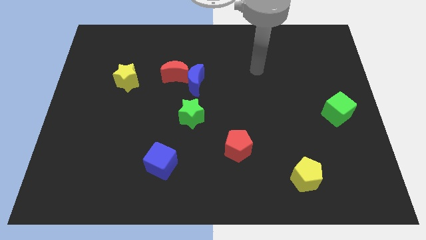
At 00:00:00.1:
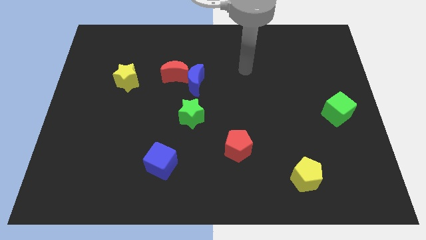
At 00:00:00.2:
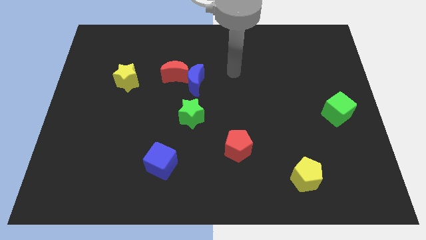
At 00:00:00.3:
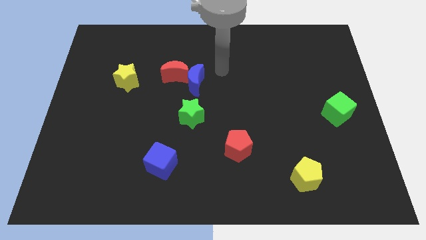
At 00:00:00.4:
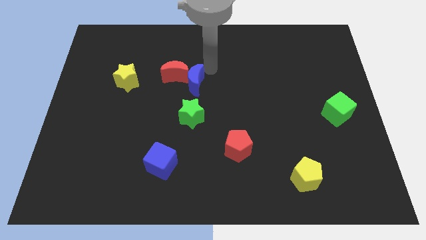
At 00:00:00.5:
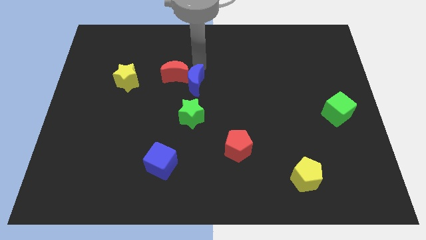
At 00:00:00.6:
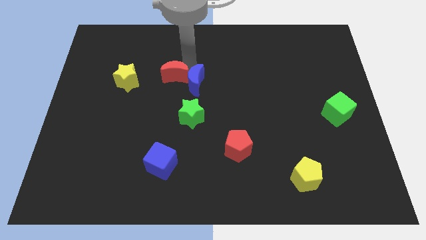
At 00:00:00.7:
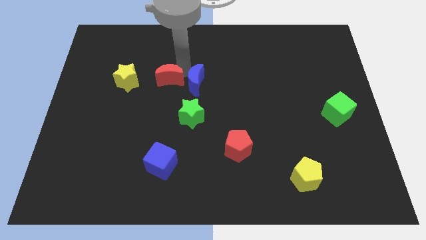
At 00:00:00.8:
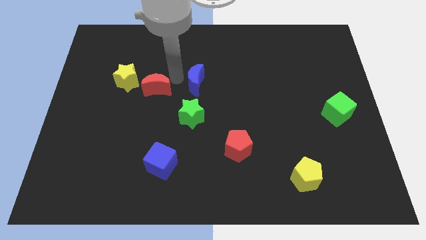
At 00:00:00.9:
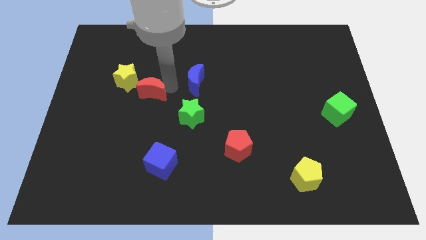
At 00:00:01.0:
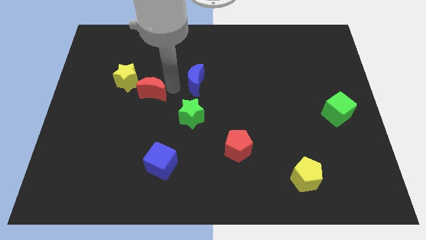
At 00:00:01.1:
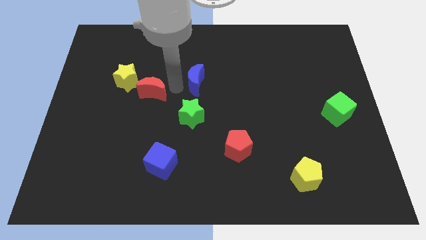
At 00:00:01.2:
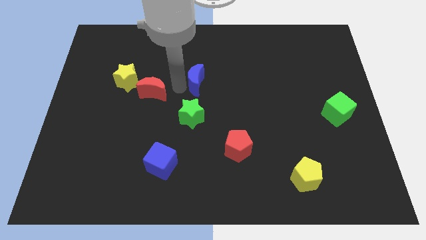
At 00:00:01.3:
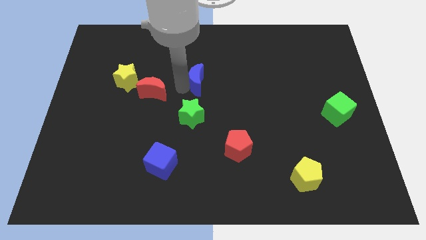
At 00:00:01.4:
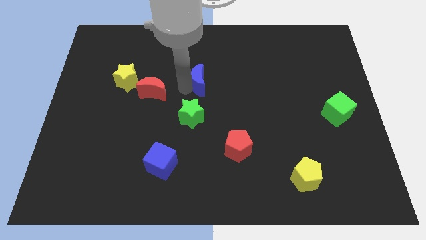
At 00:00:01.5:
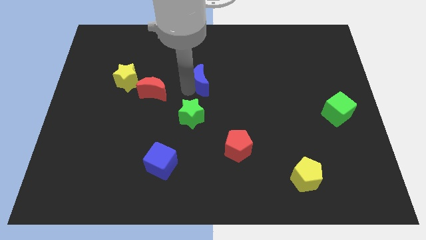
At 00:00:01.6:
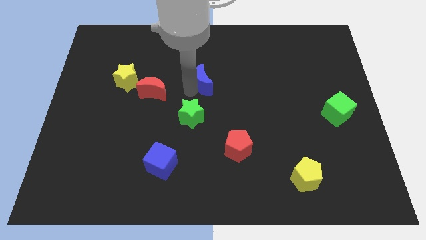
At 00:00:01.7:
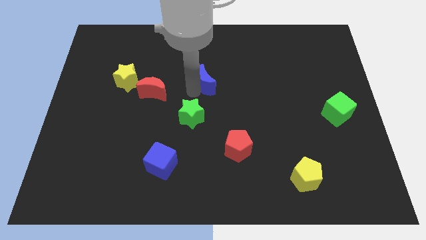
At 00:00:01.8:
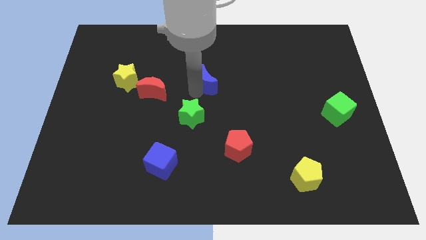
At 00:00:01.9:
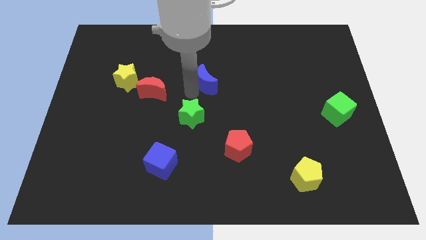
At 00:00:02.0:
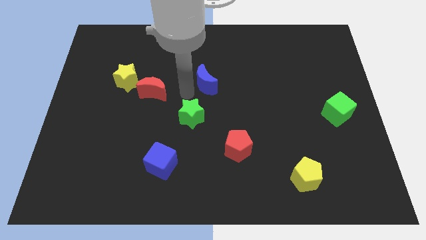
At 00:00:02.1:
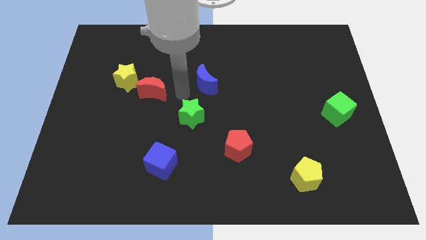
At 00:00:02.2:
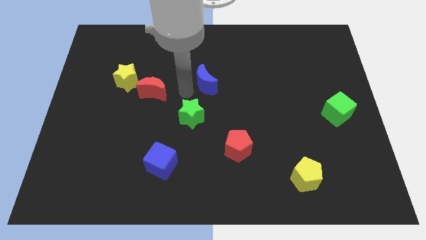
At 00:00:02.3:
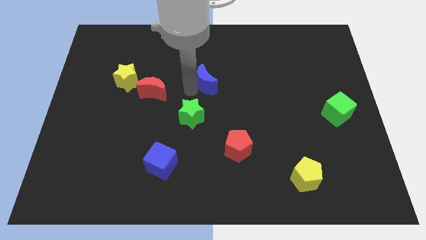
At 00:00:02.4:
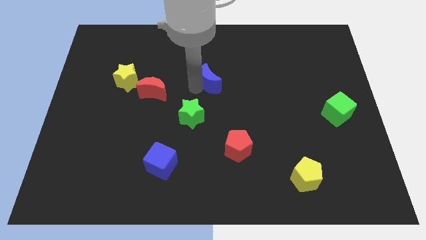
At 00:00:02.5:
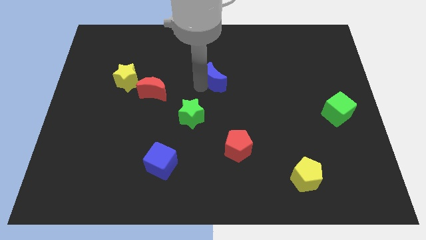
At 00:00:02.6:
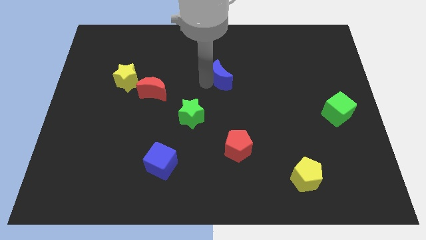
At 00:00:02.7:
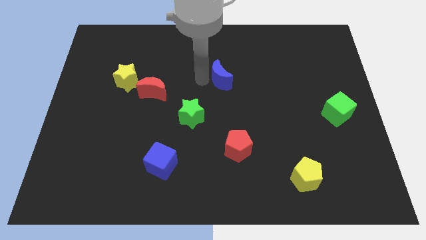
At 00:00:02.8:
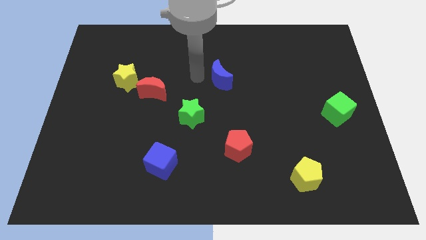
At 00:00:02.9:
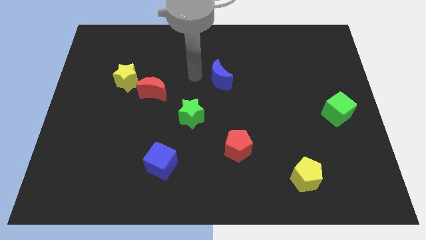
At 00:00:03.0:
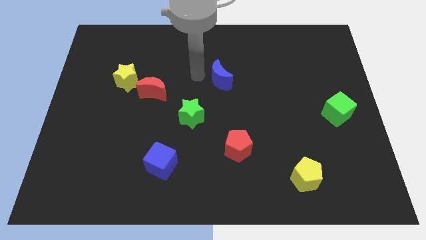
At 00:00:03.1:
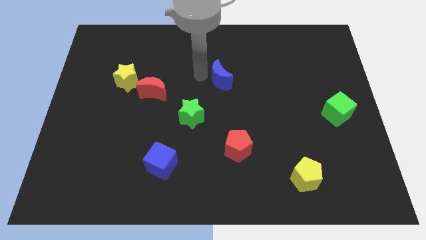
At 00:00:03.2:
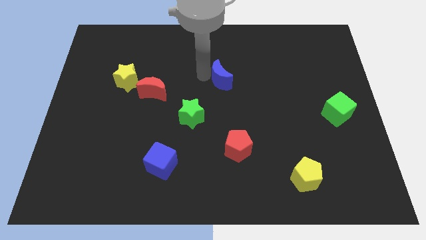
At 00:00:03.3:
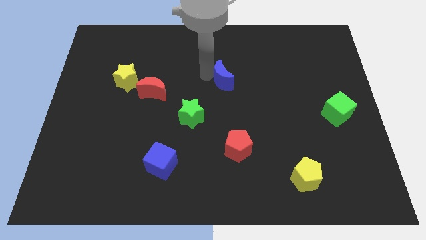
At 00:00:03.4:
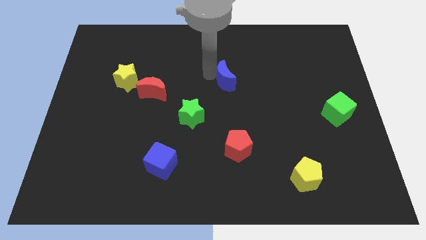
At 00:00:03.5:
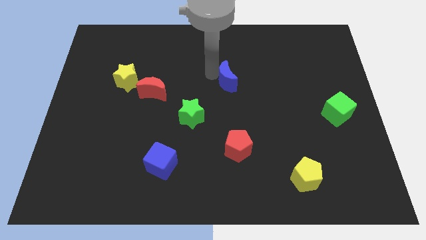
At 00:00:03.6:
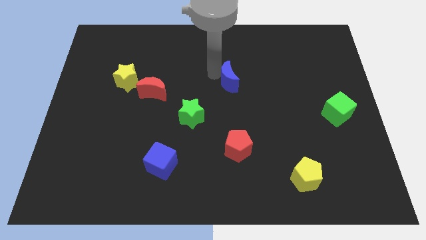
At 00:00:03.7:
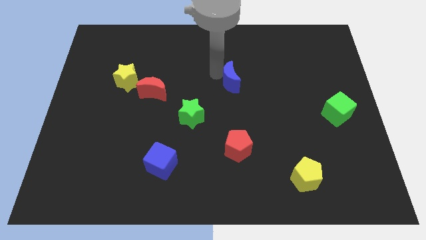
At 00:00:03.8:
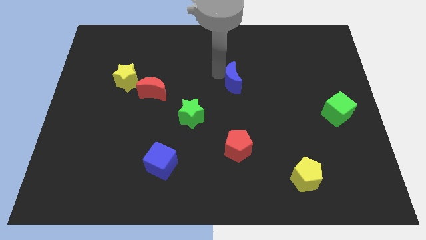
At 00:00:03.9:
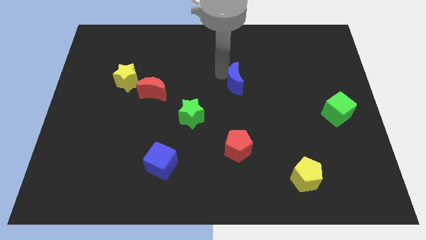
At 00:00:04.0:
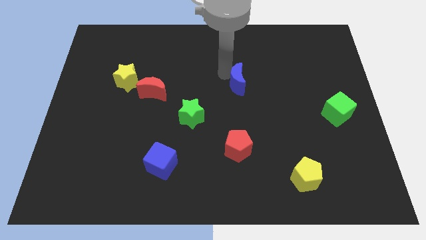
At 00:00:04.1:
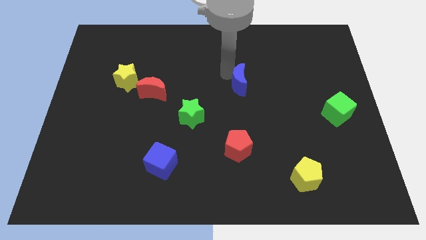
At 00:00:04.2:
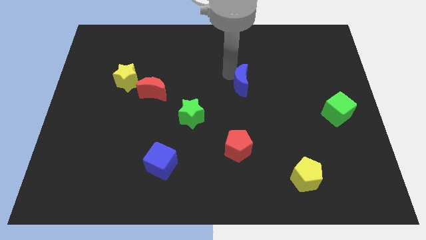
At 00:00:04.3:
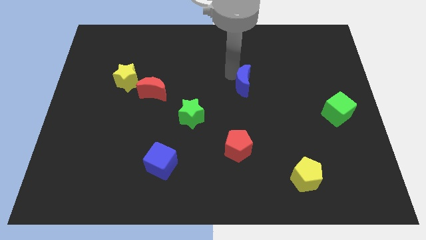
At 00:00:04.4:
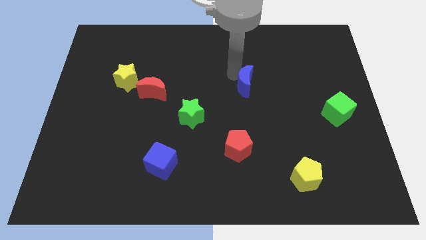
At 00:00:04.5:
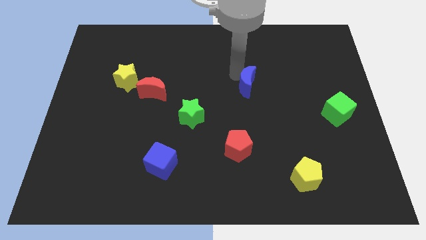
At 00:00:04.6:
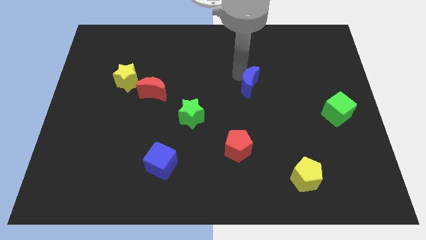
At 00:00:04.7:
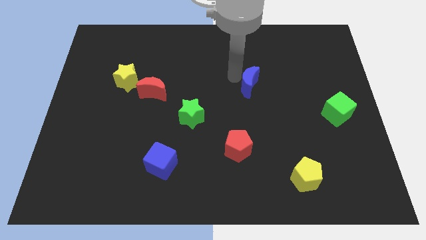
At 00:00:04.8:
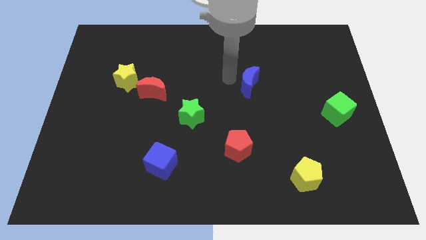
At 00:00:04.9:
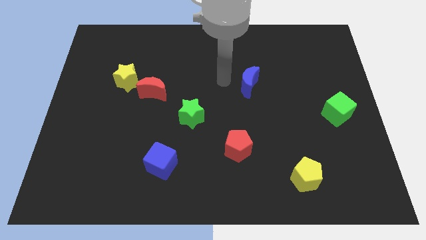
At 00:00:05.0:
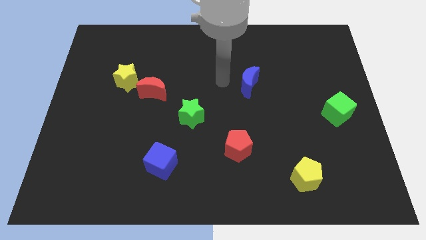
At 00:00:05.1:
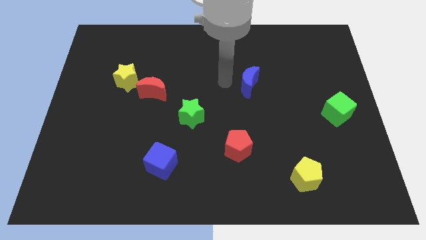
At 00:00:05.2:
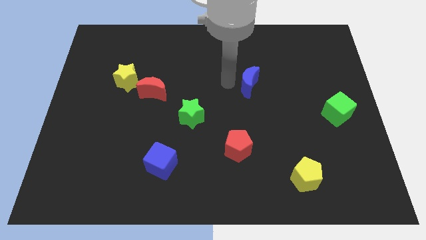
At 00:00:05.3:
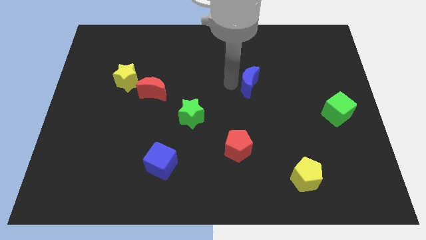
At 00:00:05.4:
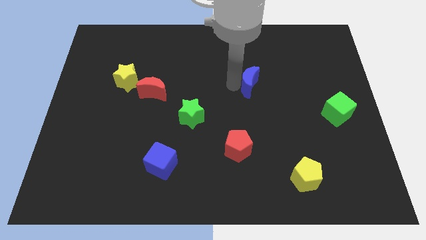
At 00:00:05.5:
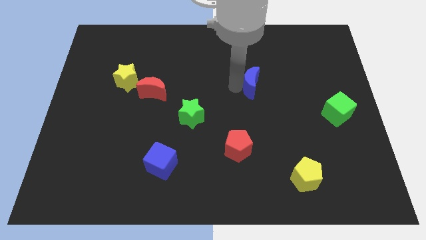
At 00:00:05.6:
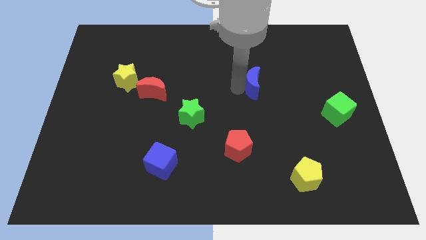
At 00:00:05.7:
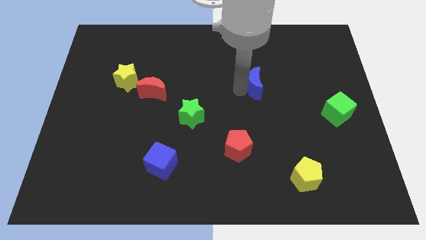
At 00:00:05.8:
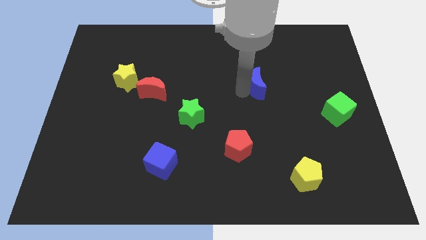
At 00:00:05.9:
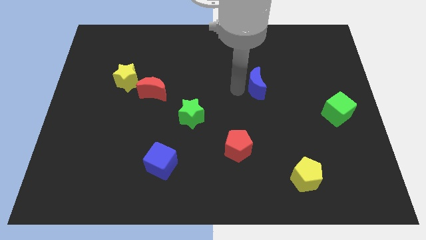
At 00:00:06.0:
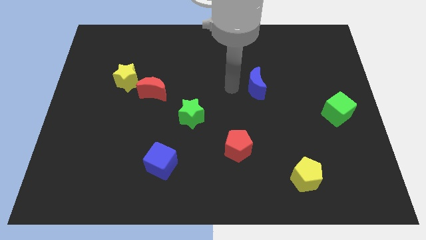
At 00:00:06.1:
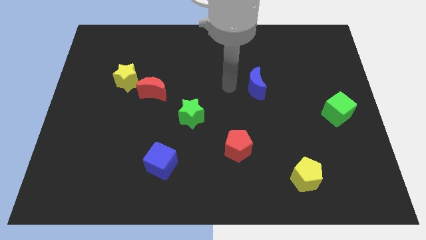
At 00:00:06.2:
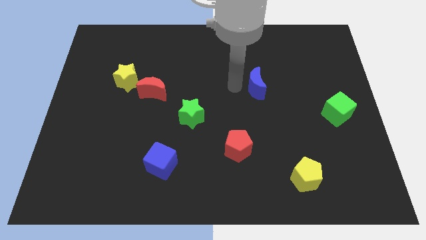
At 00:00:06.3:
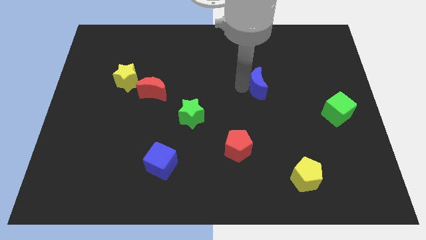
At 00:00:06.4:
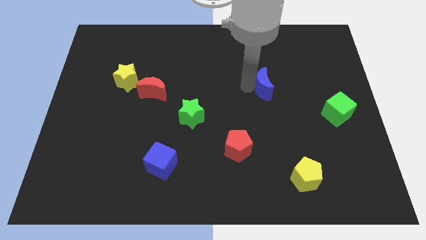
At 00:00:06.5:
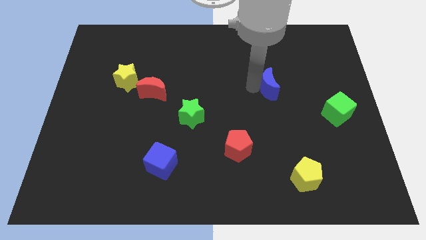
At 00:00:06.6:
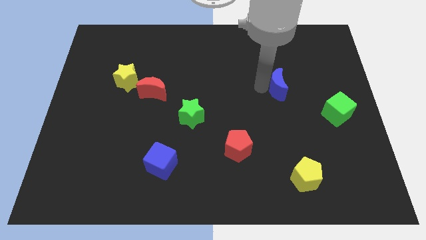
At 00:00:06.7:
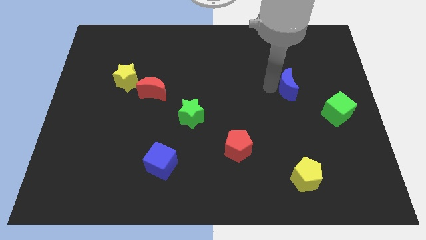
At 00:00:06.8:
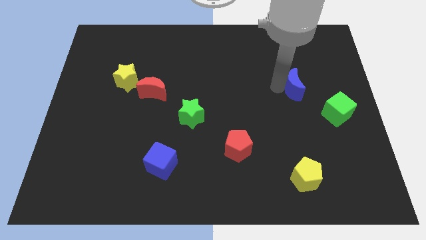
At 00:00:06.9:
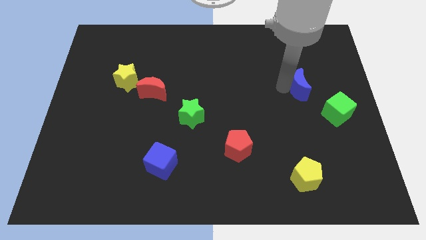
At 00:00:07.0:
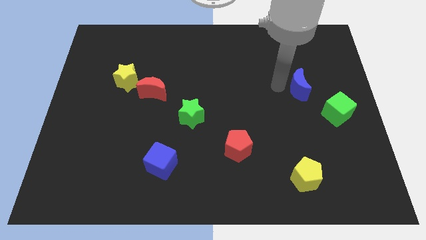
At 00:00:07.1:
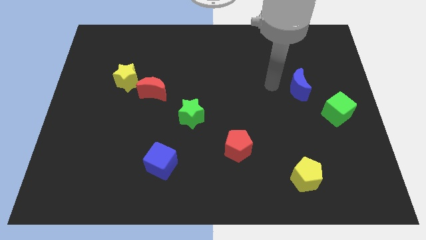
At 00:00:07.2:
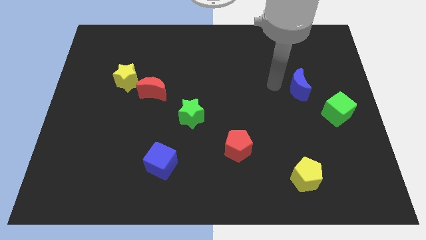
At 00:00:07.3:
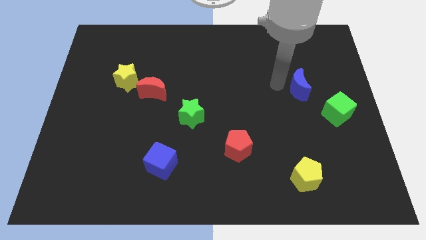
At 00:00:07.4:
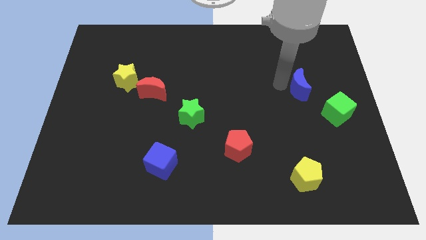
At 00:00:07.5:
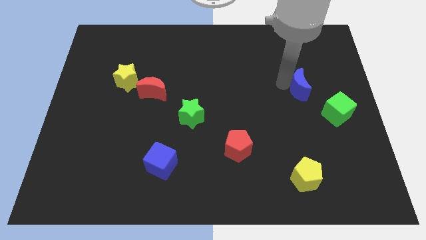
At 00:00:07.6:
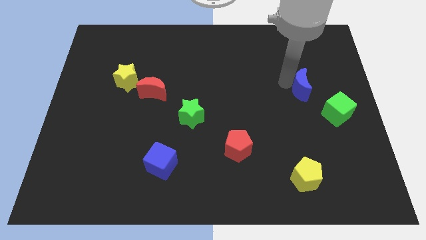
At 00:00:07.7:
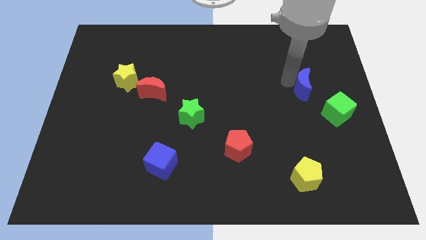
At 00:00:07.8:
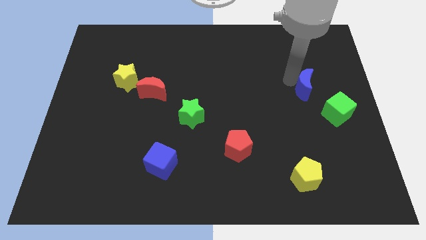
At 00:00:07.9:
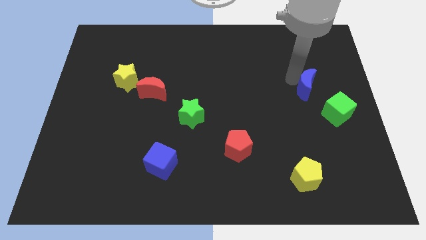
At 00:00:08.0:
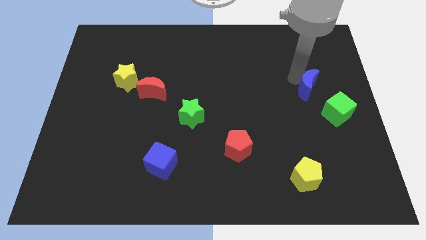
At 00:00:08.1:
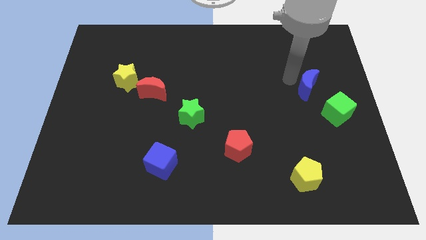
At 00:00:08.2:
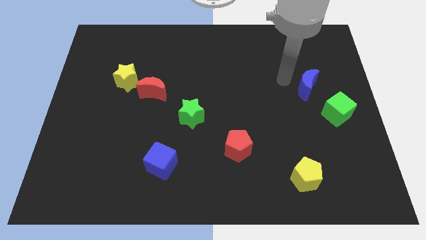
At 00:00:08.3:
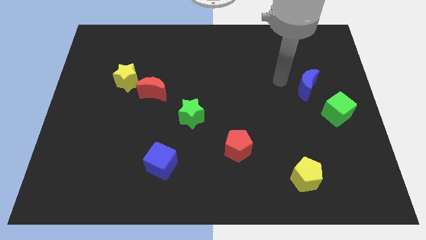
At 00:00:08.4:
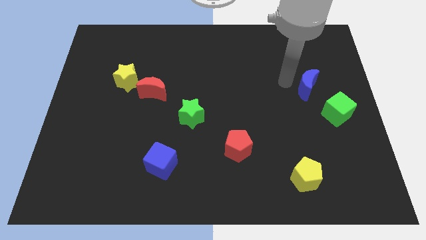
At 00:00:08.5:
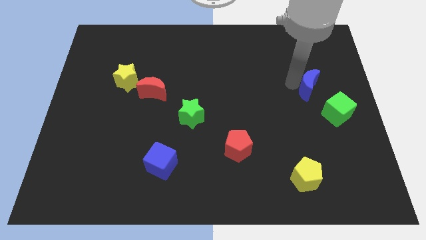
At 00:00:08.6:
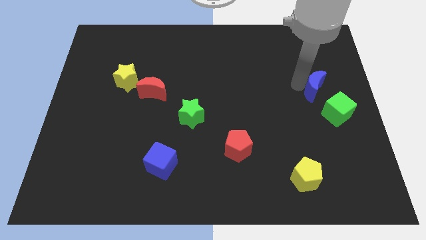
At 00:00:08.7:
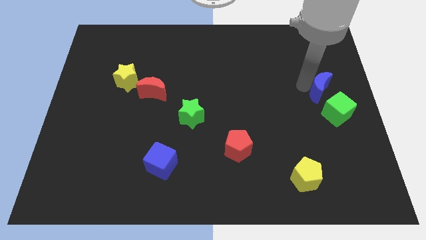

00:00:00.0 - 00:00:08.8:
push the blue moon to the center right
